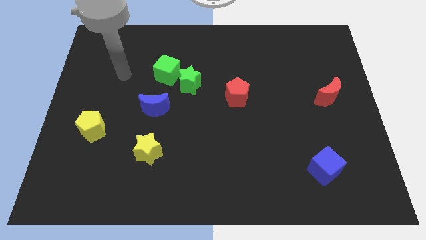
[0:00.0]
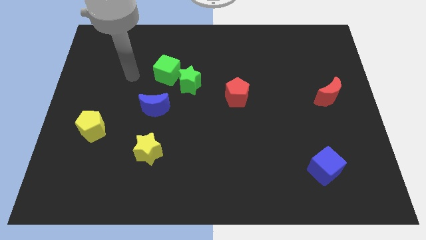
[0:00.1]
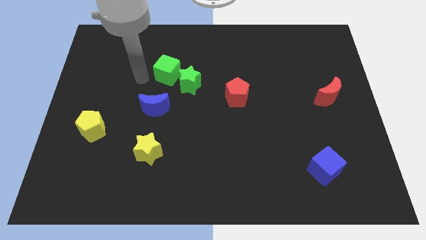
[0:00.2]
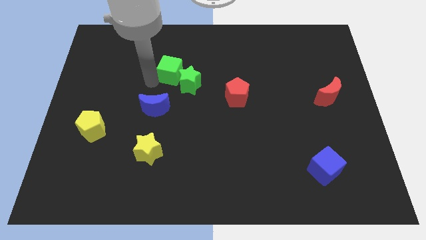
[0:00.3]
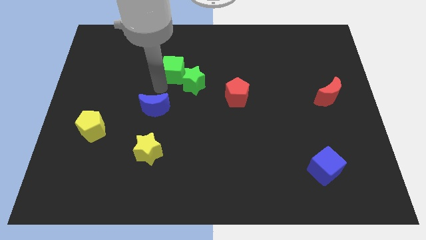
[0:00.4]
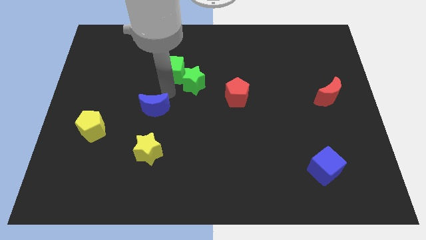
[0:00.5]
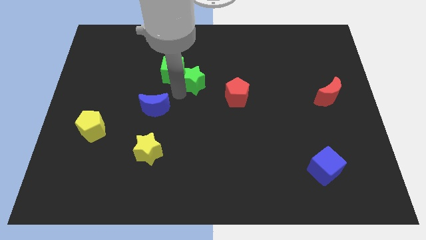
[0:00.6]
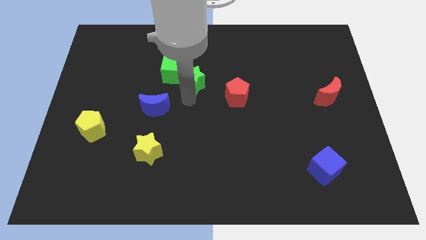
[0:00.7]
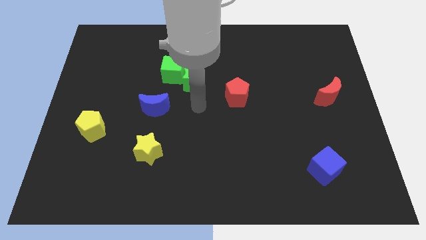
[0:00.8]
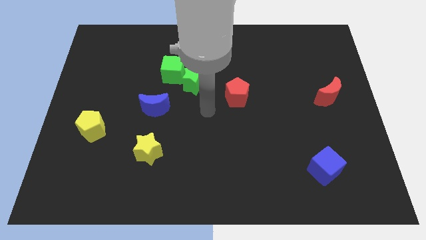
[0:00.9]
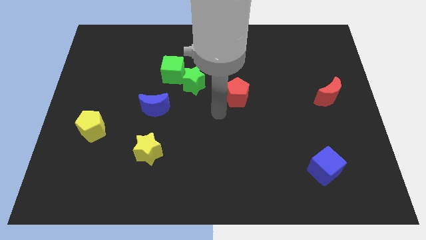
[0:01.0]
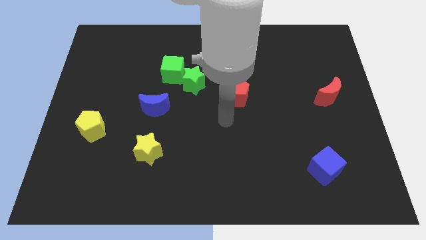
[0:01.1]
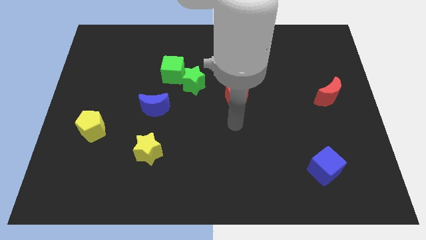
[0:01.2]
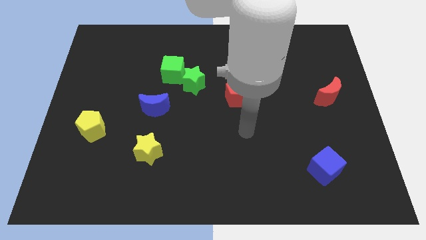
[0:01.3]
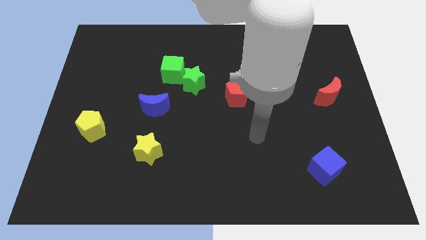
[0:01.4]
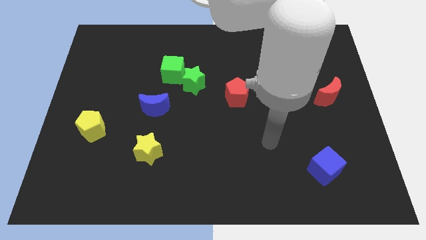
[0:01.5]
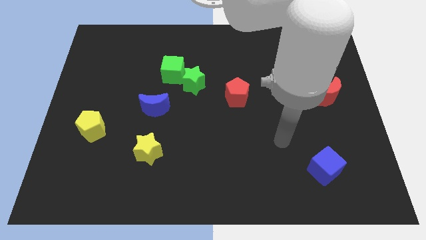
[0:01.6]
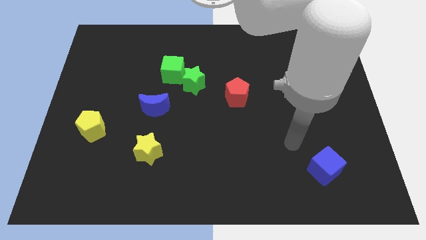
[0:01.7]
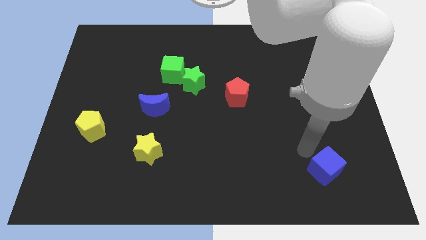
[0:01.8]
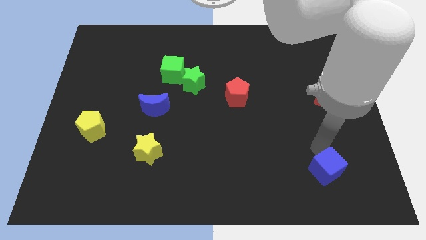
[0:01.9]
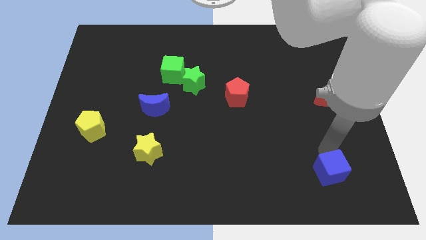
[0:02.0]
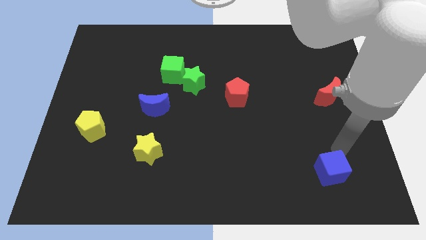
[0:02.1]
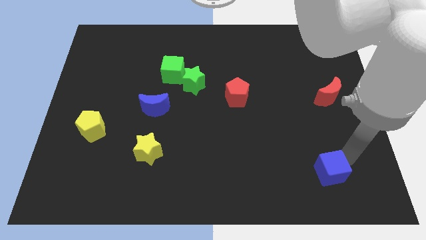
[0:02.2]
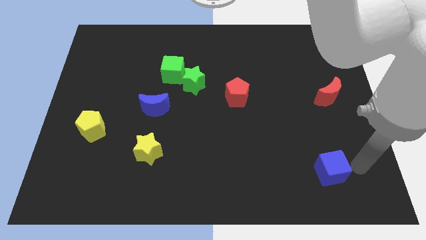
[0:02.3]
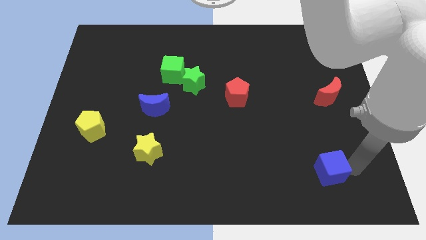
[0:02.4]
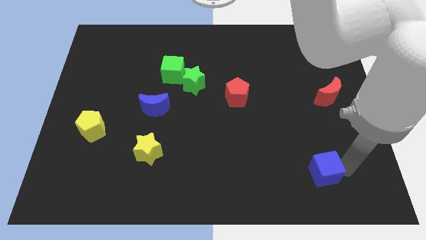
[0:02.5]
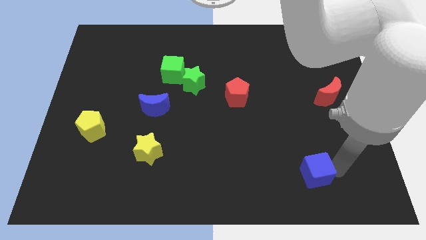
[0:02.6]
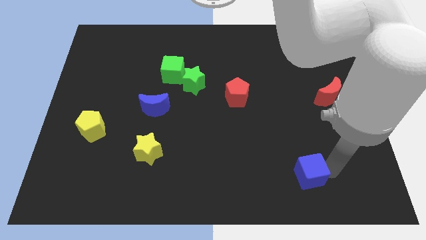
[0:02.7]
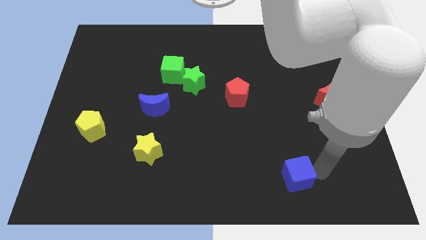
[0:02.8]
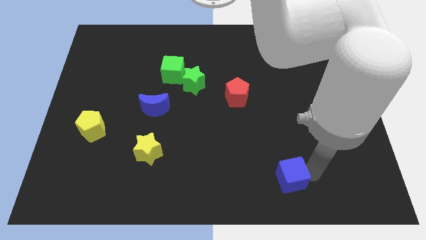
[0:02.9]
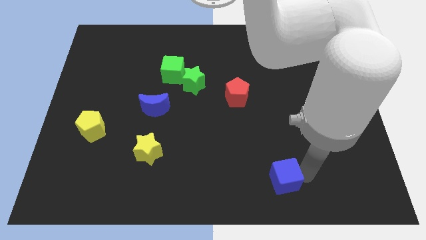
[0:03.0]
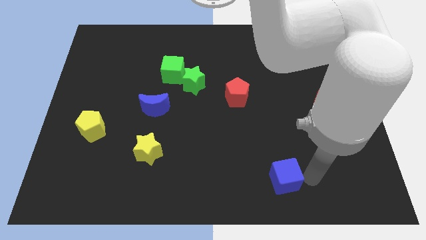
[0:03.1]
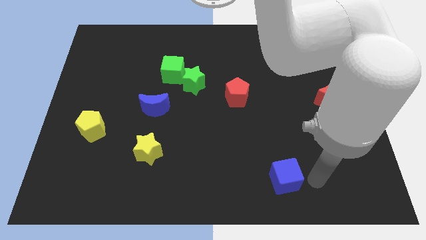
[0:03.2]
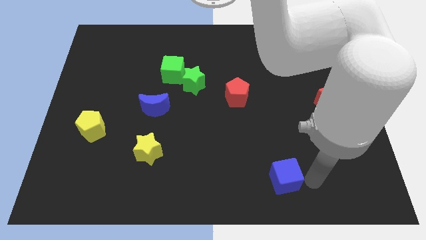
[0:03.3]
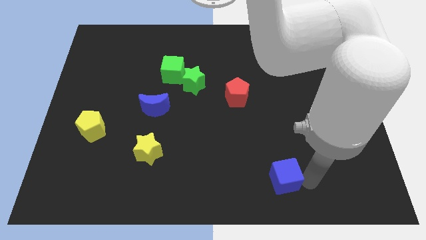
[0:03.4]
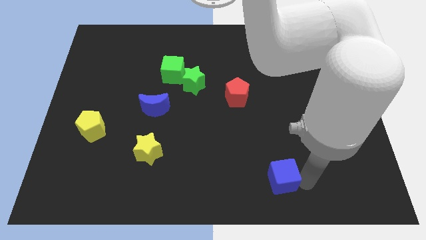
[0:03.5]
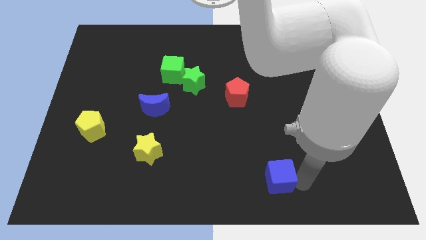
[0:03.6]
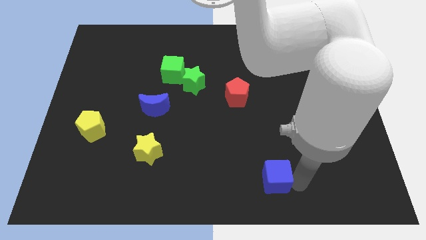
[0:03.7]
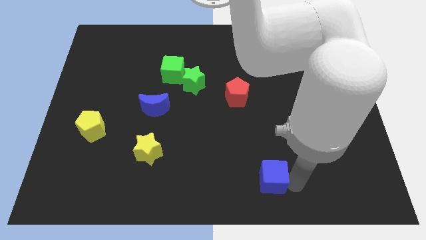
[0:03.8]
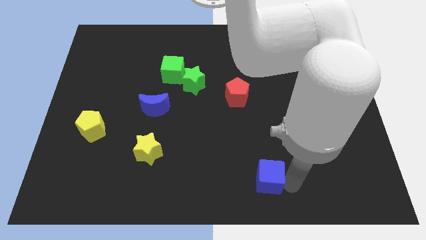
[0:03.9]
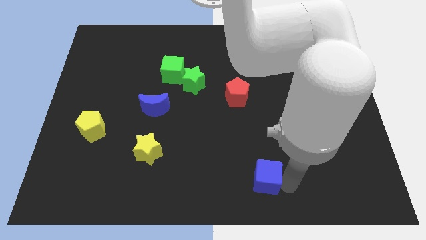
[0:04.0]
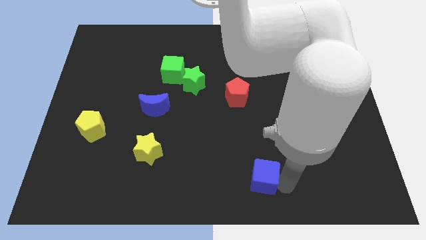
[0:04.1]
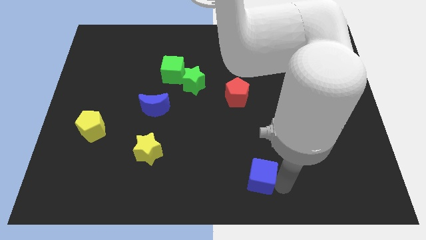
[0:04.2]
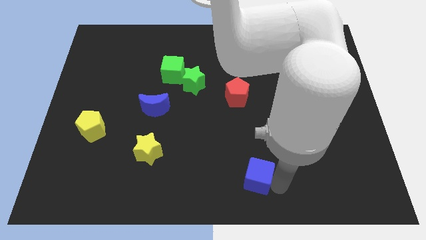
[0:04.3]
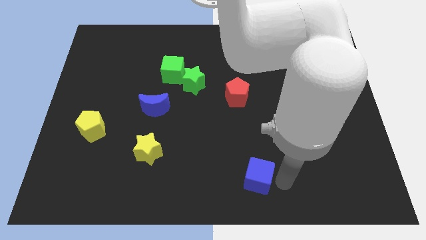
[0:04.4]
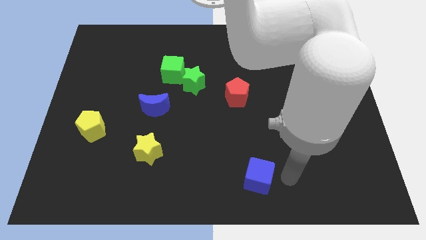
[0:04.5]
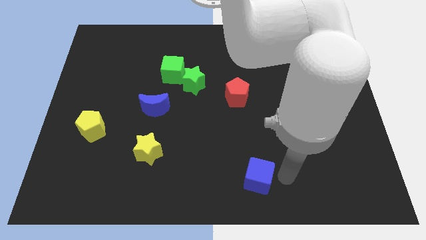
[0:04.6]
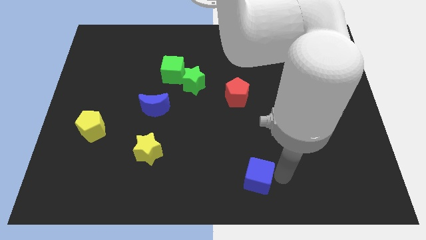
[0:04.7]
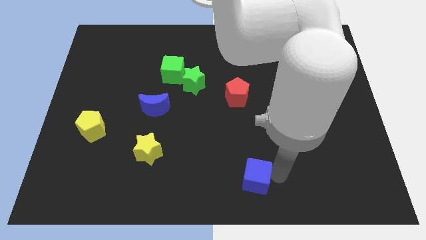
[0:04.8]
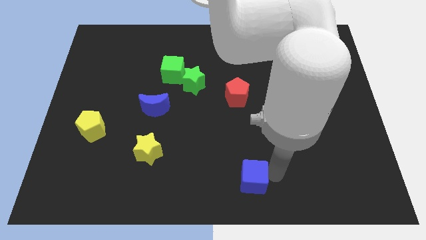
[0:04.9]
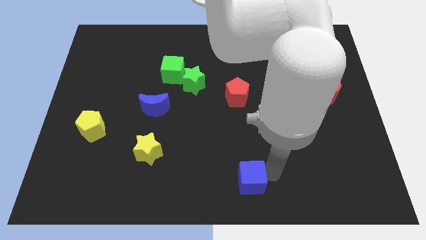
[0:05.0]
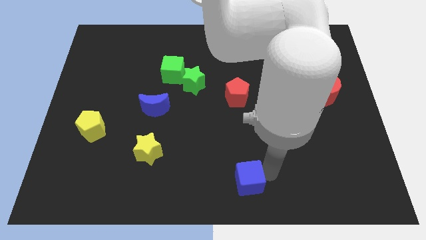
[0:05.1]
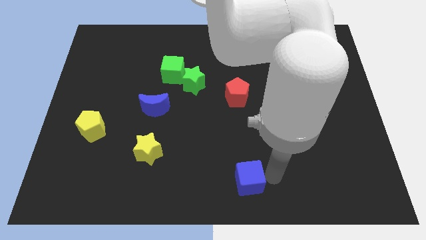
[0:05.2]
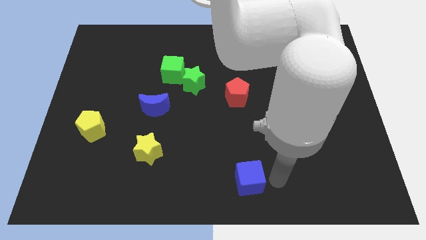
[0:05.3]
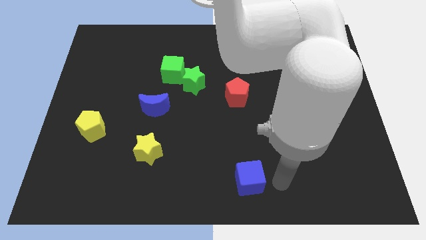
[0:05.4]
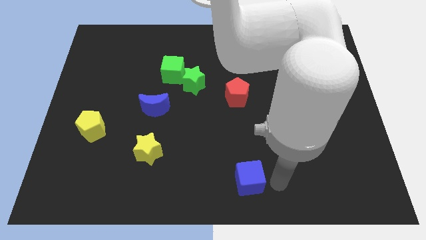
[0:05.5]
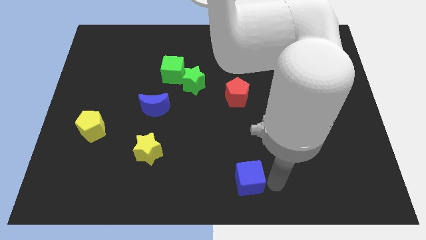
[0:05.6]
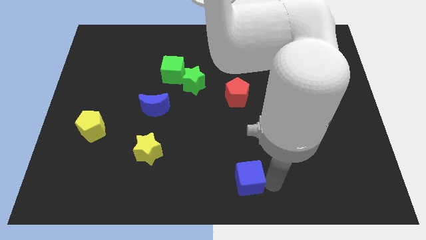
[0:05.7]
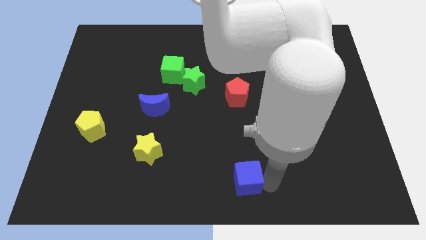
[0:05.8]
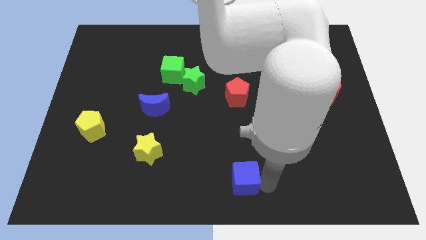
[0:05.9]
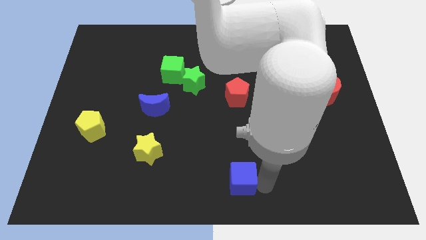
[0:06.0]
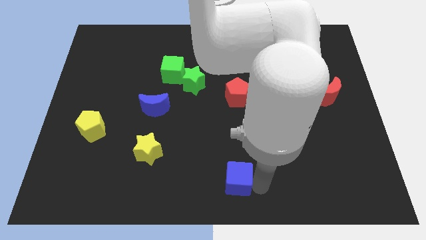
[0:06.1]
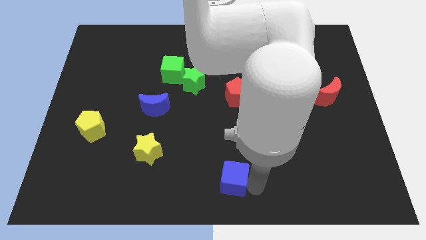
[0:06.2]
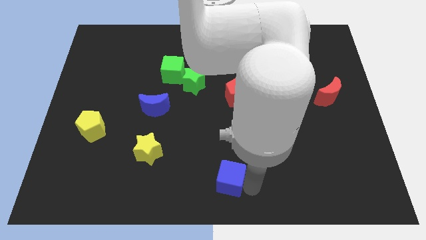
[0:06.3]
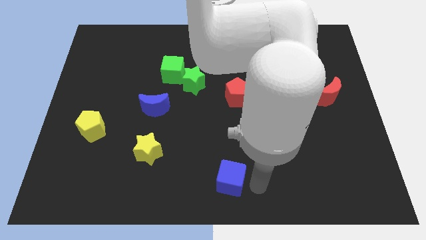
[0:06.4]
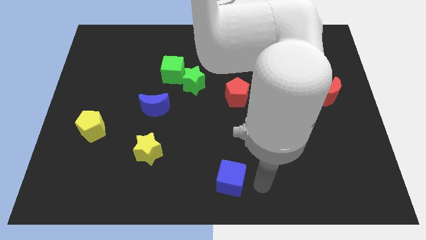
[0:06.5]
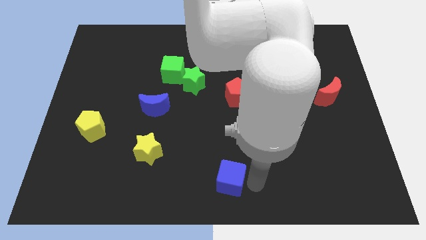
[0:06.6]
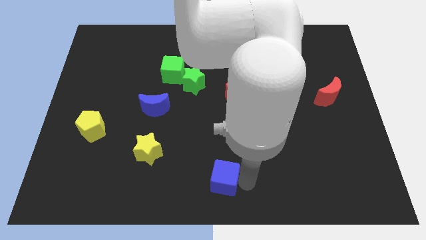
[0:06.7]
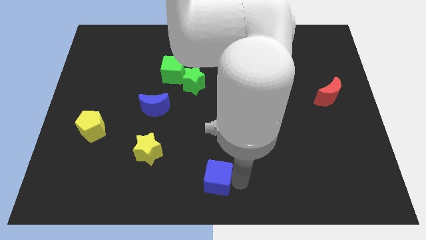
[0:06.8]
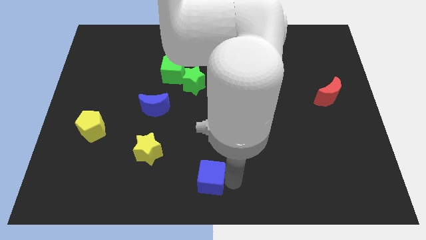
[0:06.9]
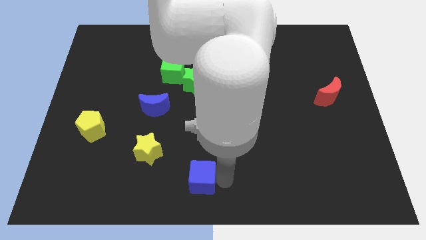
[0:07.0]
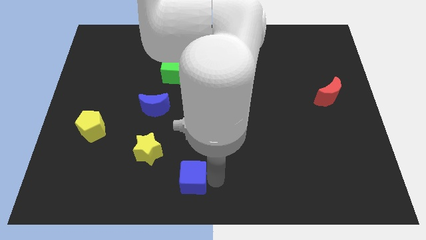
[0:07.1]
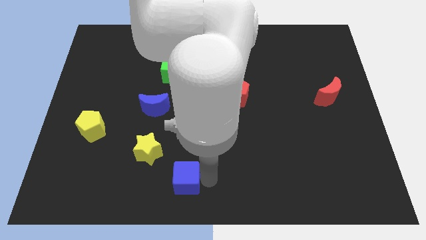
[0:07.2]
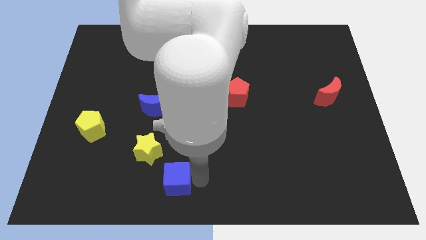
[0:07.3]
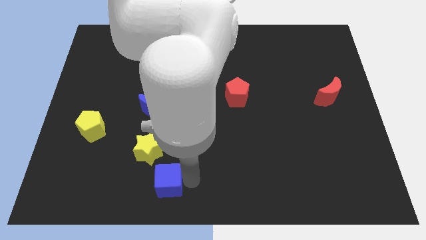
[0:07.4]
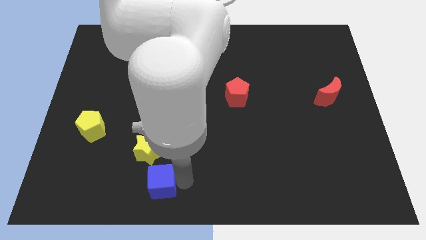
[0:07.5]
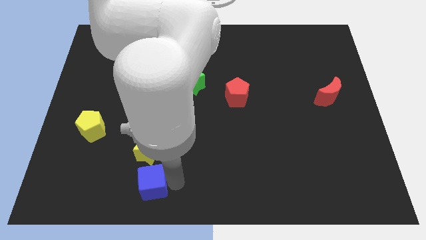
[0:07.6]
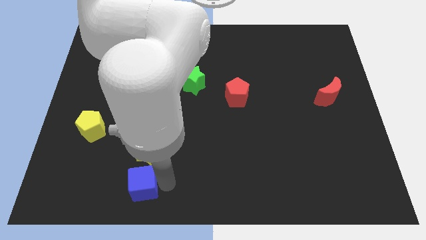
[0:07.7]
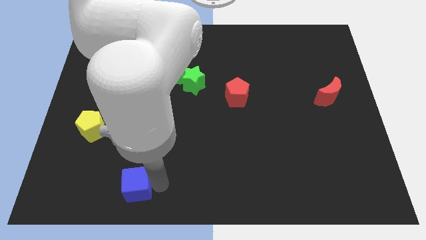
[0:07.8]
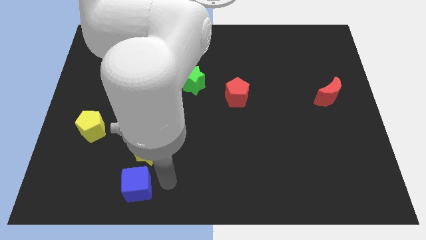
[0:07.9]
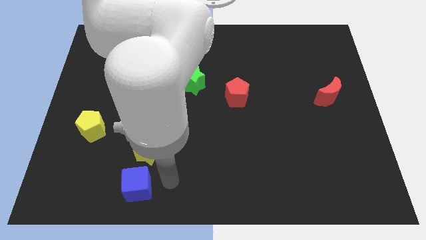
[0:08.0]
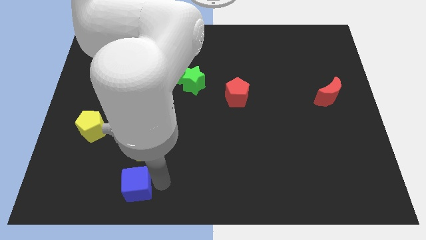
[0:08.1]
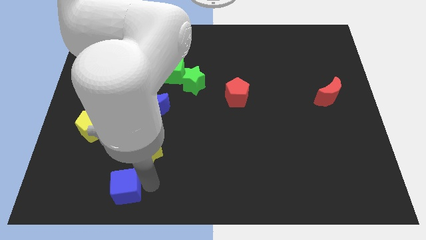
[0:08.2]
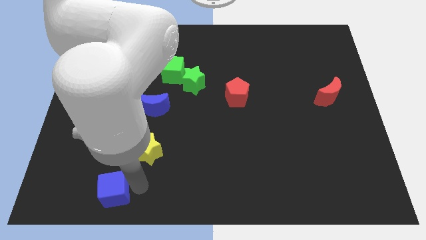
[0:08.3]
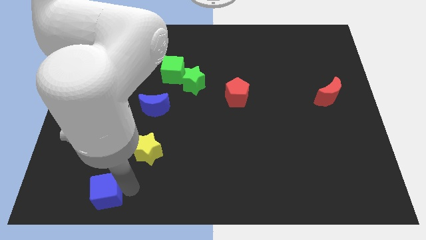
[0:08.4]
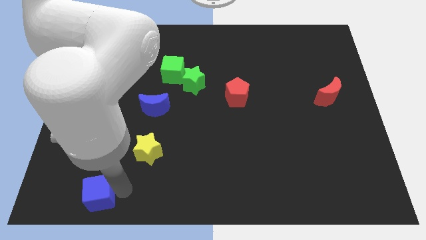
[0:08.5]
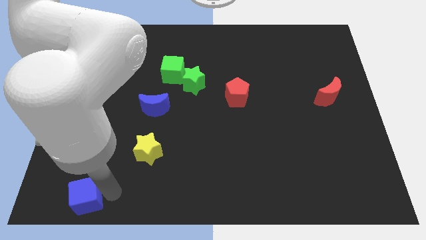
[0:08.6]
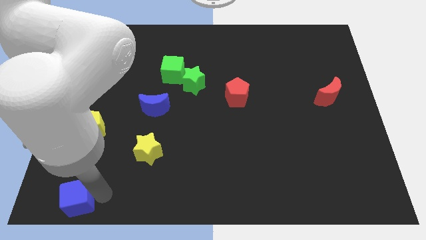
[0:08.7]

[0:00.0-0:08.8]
move the blue cube to the bottom left
